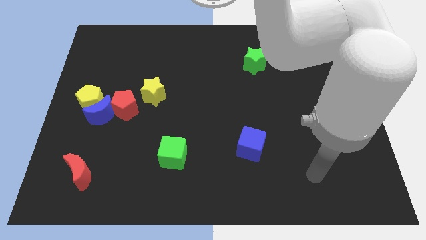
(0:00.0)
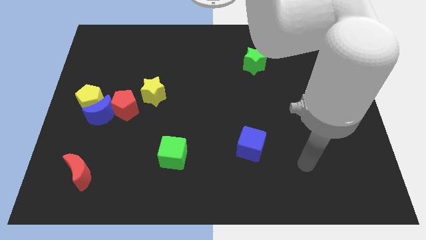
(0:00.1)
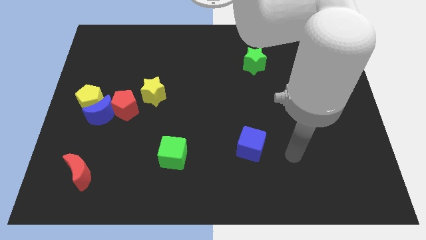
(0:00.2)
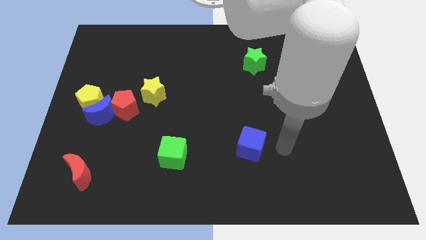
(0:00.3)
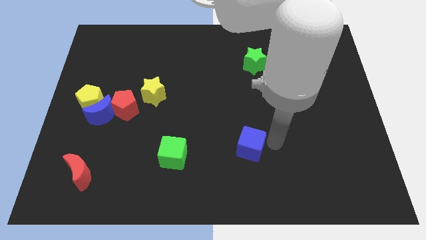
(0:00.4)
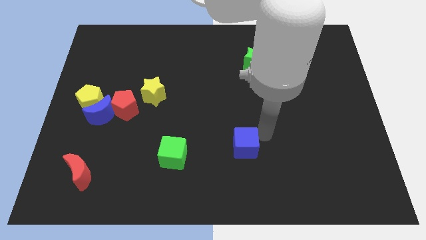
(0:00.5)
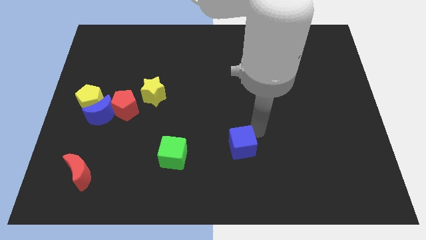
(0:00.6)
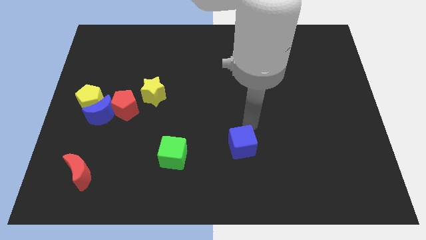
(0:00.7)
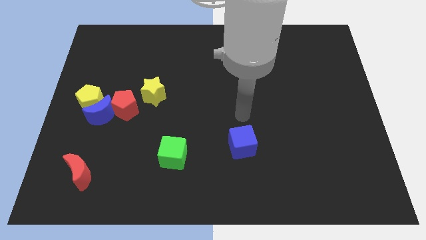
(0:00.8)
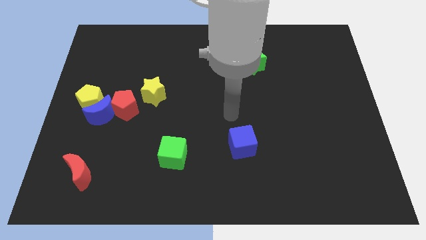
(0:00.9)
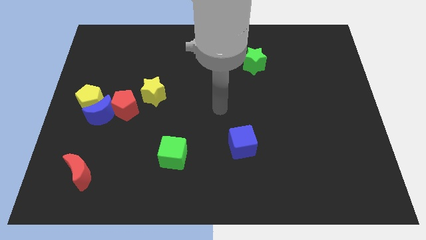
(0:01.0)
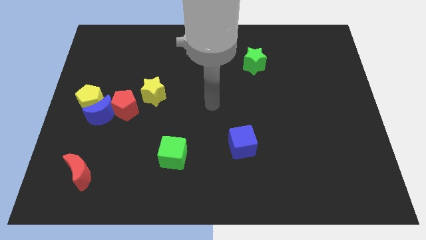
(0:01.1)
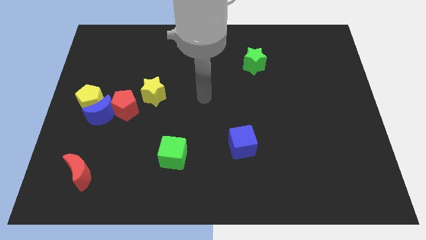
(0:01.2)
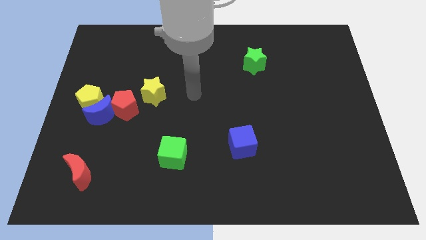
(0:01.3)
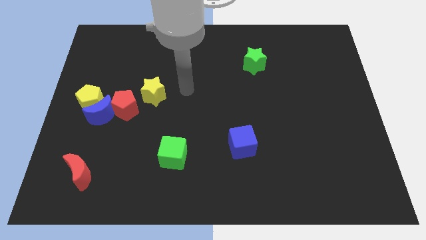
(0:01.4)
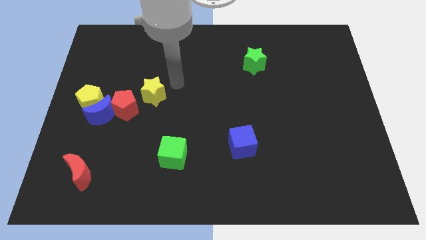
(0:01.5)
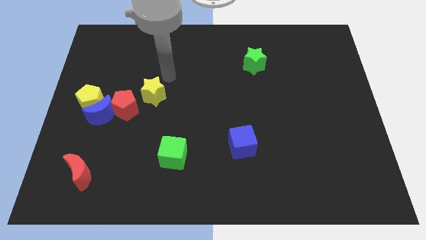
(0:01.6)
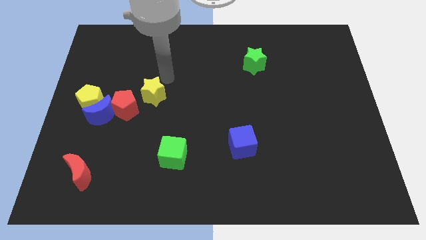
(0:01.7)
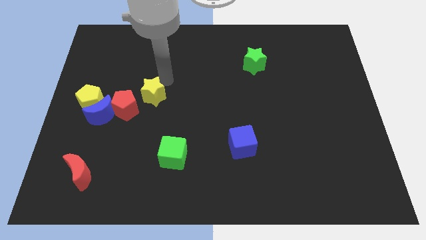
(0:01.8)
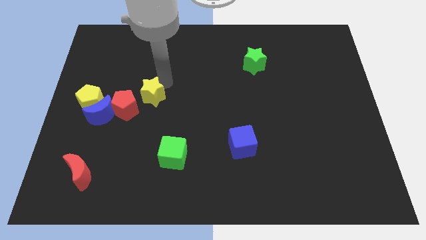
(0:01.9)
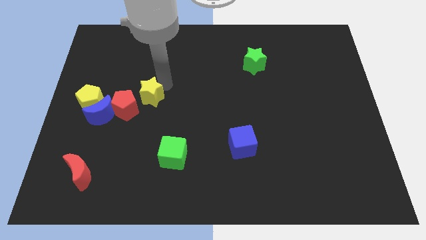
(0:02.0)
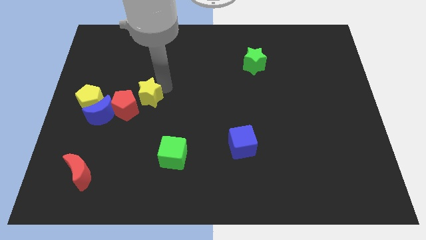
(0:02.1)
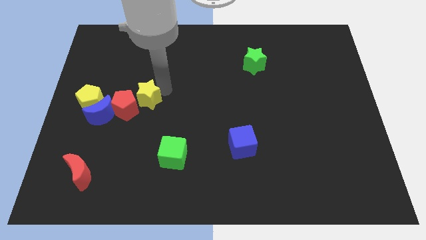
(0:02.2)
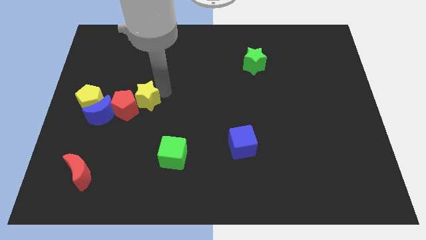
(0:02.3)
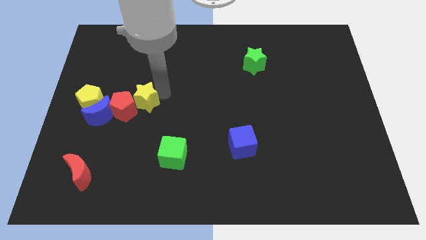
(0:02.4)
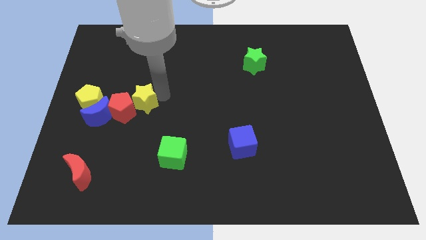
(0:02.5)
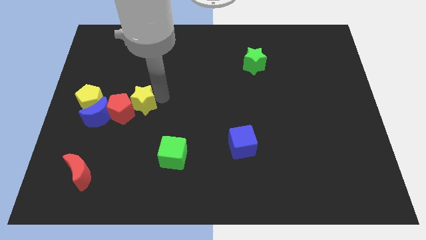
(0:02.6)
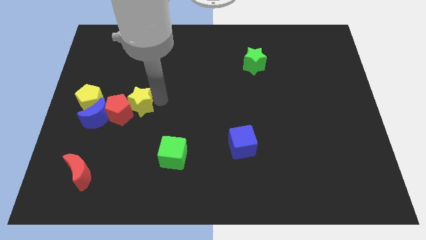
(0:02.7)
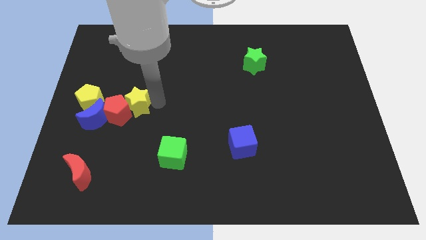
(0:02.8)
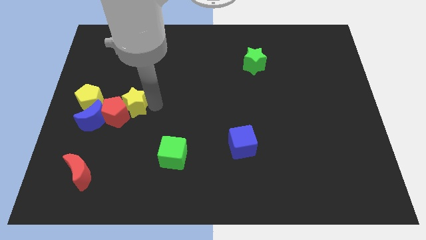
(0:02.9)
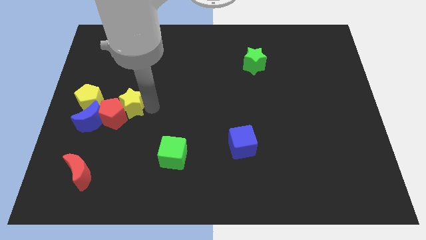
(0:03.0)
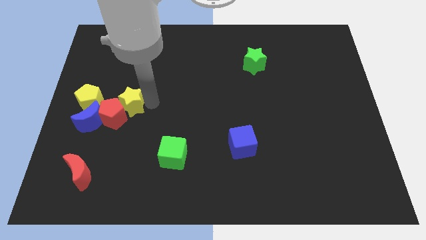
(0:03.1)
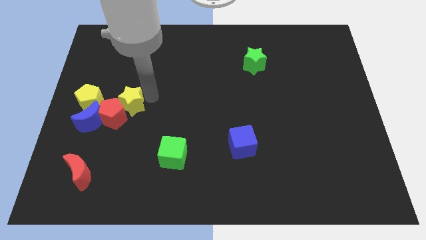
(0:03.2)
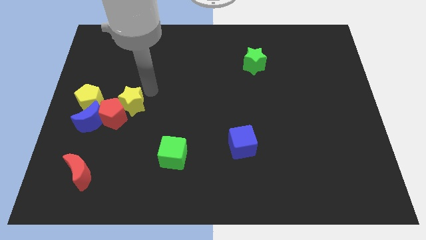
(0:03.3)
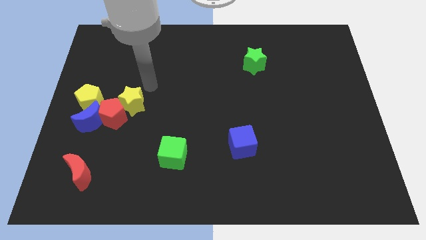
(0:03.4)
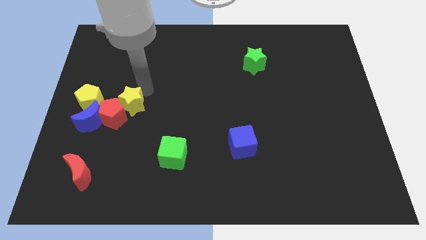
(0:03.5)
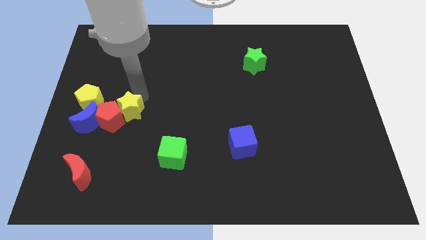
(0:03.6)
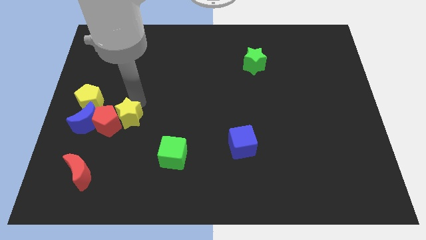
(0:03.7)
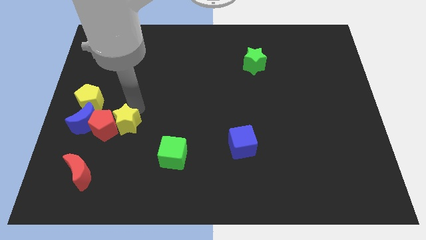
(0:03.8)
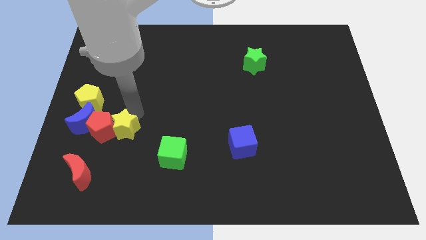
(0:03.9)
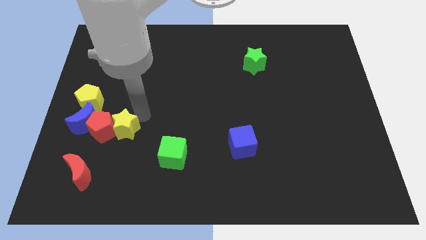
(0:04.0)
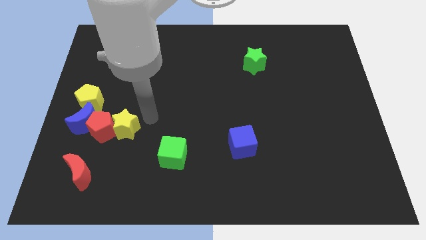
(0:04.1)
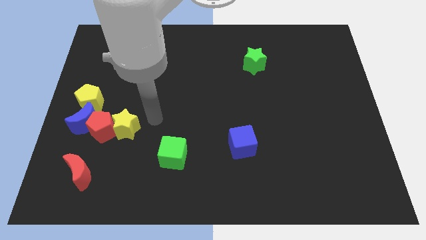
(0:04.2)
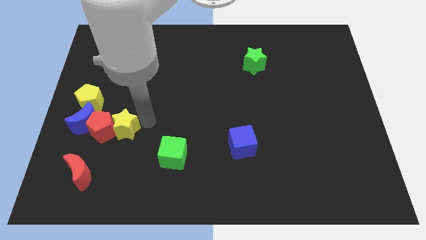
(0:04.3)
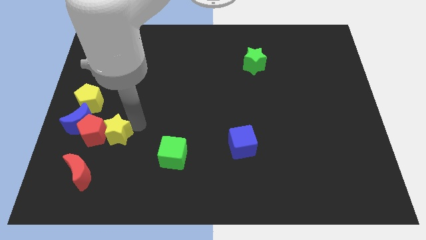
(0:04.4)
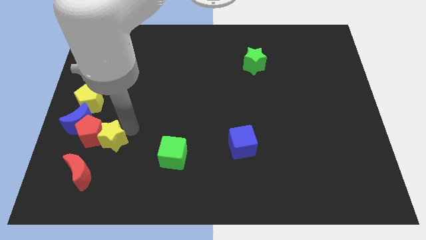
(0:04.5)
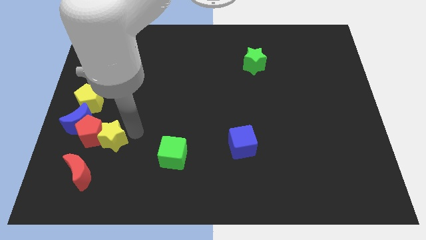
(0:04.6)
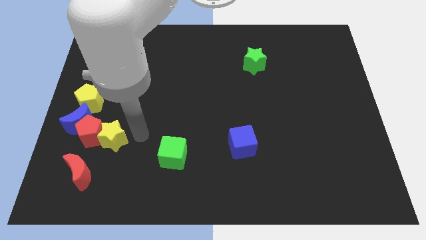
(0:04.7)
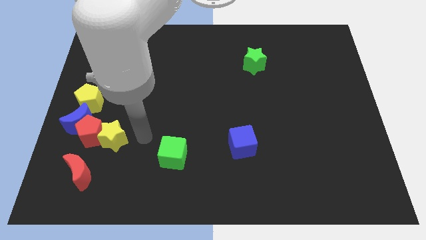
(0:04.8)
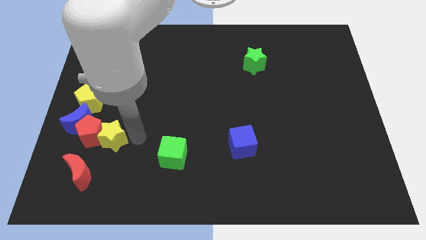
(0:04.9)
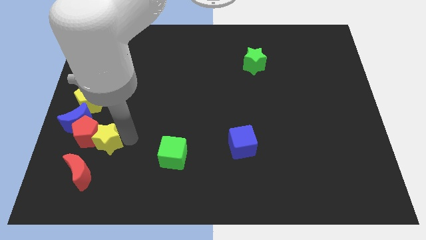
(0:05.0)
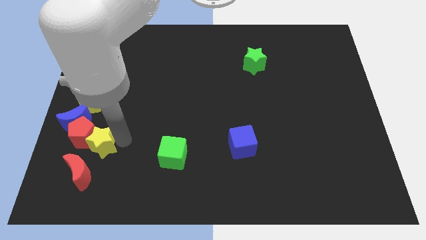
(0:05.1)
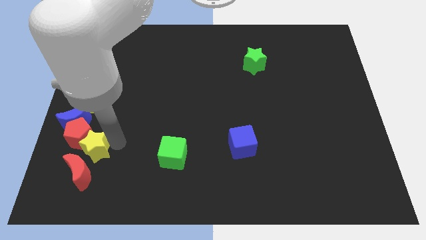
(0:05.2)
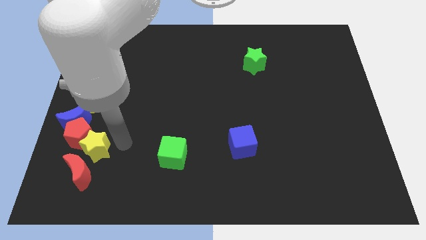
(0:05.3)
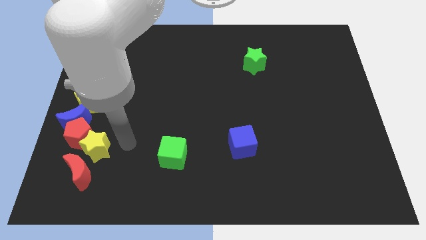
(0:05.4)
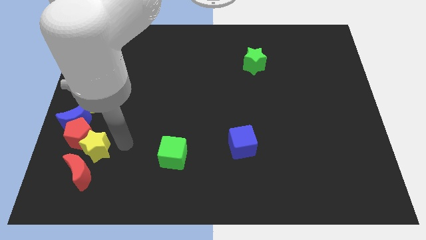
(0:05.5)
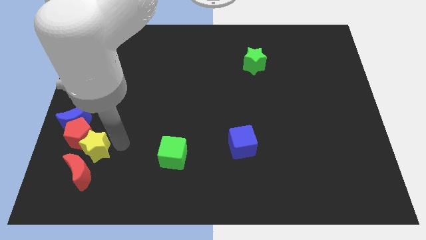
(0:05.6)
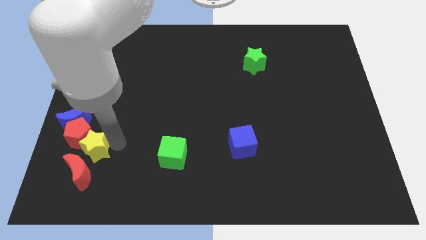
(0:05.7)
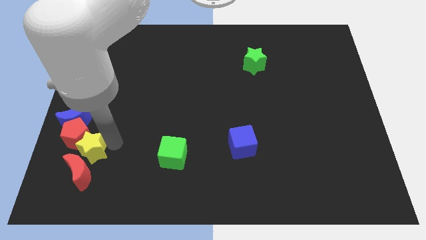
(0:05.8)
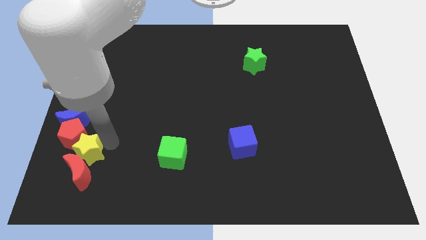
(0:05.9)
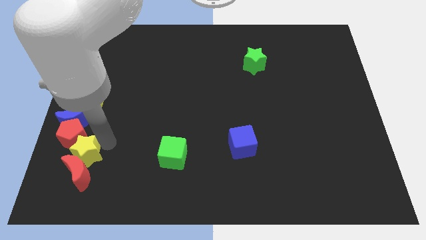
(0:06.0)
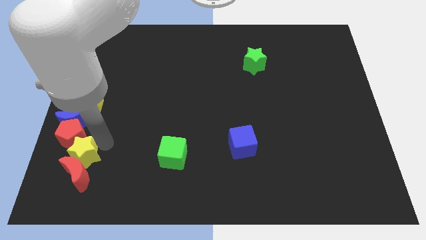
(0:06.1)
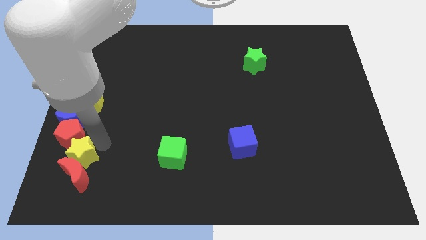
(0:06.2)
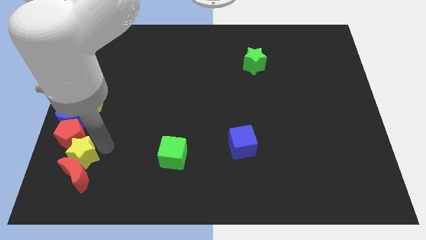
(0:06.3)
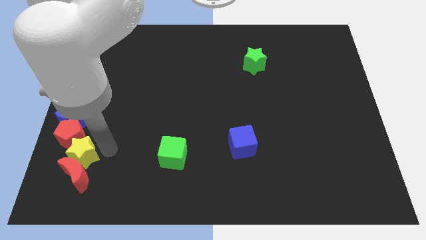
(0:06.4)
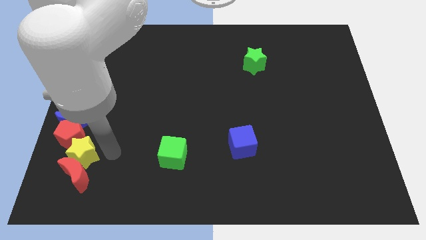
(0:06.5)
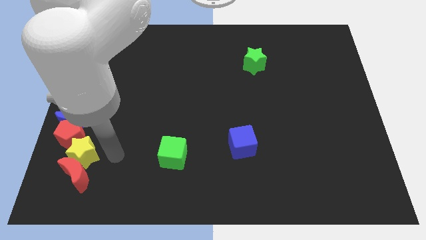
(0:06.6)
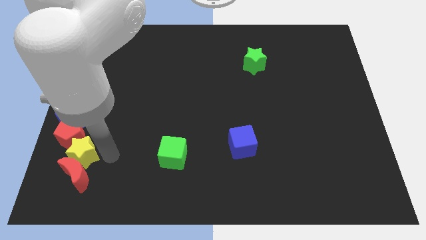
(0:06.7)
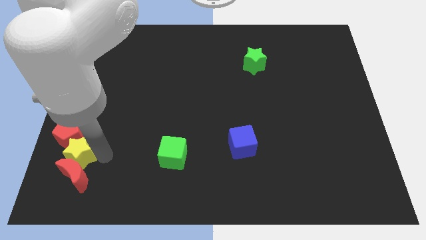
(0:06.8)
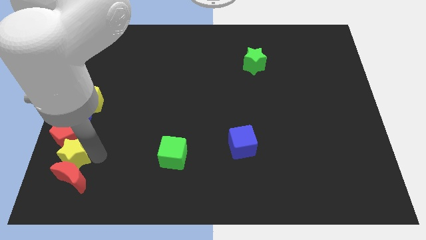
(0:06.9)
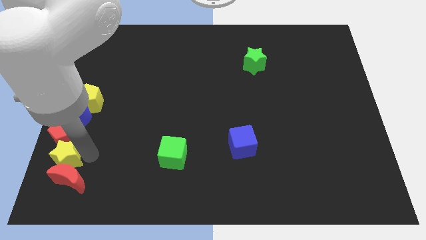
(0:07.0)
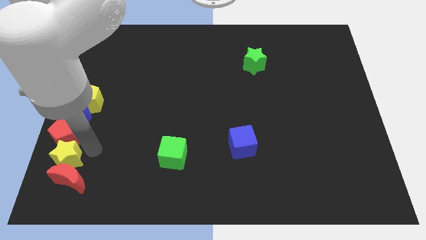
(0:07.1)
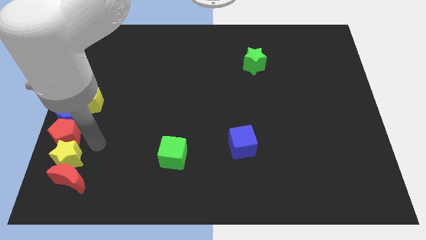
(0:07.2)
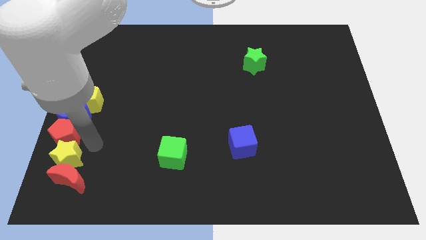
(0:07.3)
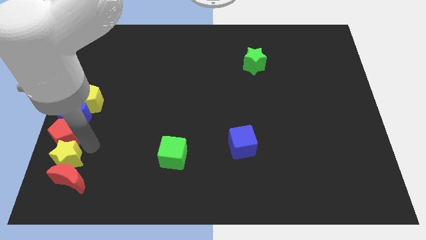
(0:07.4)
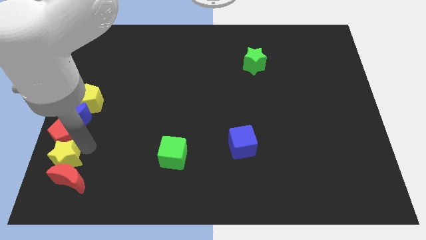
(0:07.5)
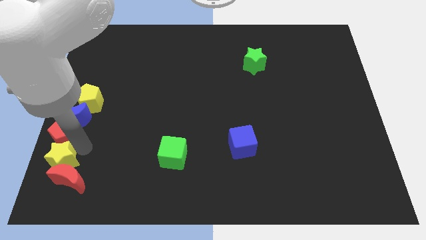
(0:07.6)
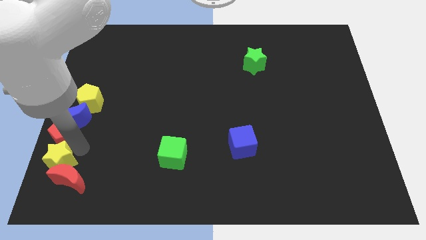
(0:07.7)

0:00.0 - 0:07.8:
put the yellow star to the bottom left
